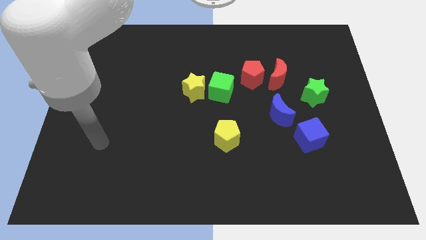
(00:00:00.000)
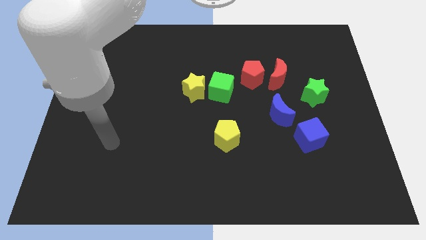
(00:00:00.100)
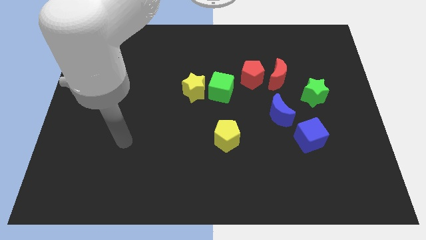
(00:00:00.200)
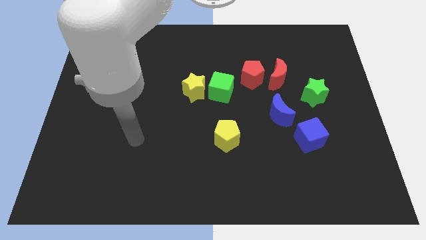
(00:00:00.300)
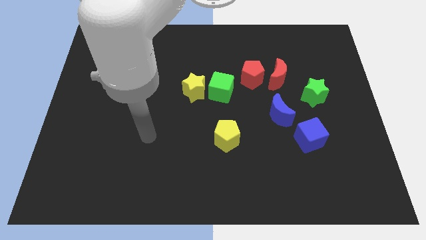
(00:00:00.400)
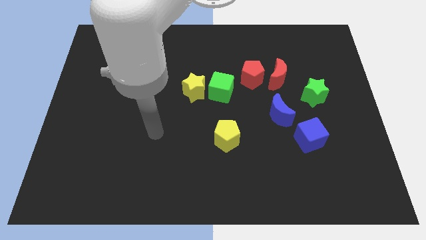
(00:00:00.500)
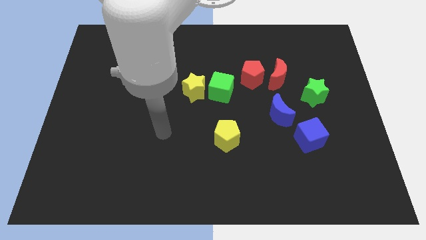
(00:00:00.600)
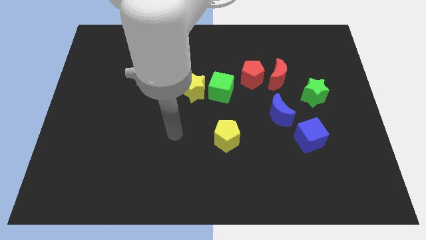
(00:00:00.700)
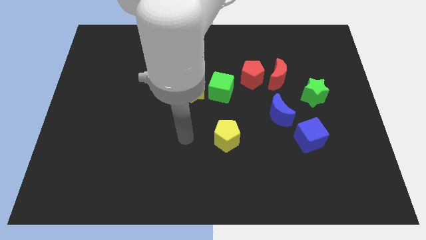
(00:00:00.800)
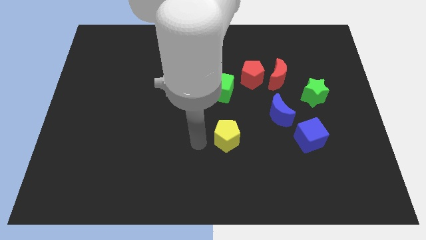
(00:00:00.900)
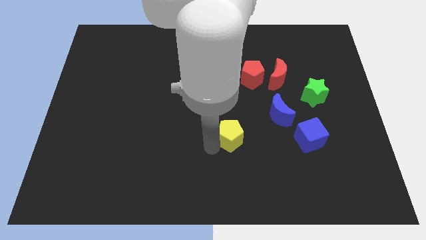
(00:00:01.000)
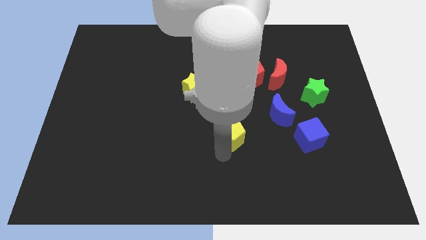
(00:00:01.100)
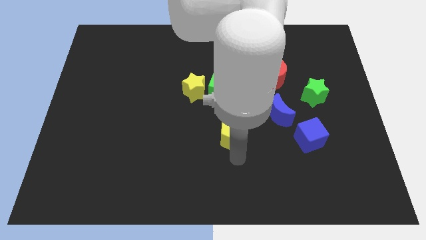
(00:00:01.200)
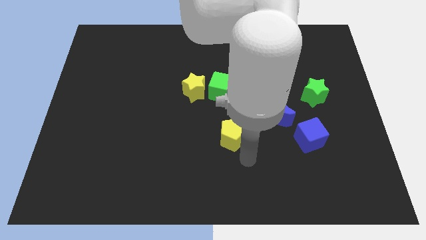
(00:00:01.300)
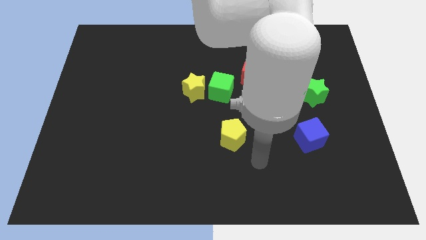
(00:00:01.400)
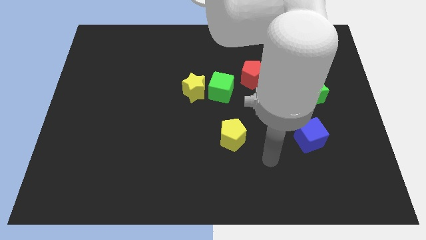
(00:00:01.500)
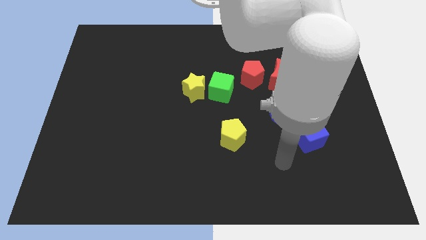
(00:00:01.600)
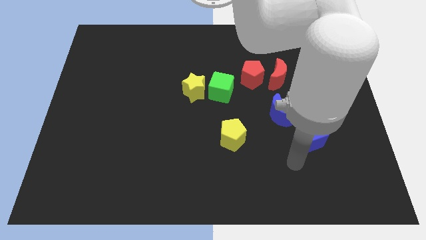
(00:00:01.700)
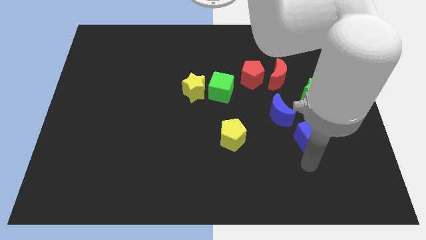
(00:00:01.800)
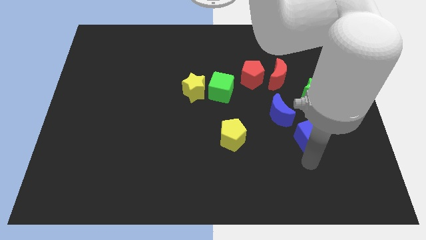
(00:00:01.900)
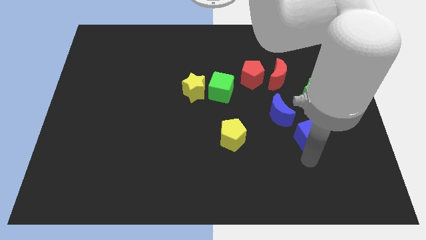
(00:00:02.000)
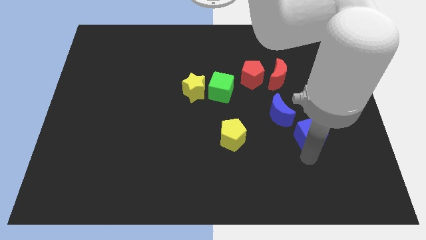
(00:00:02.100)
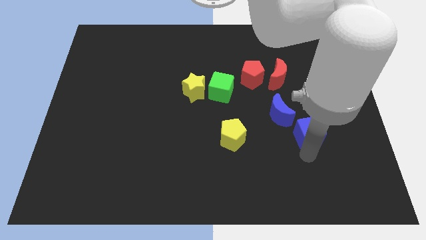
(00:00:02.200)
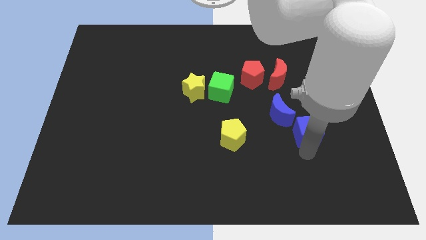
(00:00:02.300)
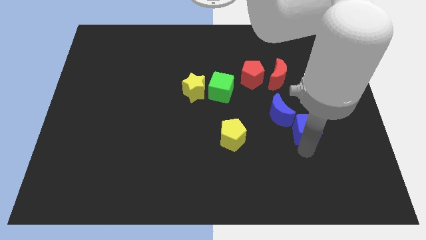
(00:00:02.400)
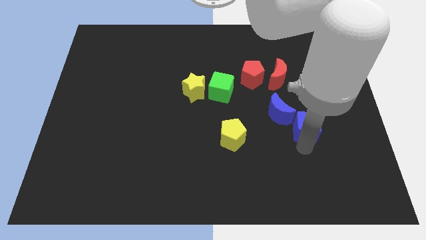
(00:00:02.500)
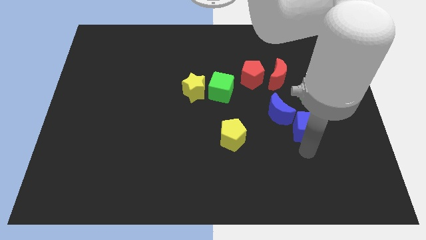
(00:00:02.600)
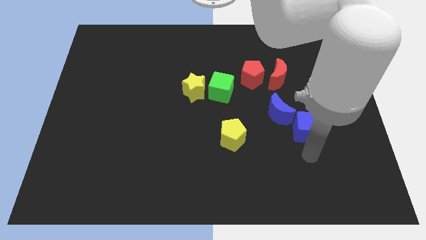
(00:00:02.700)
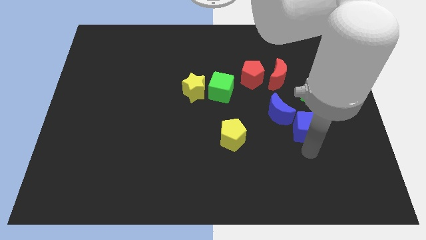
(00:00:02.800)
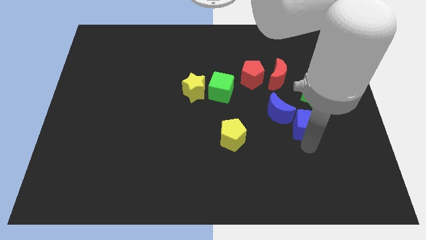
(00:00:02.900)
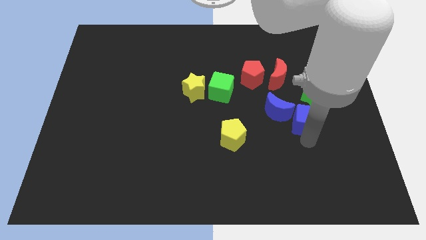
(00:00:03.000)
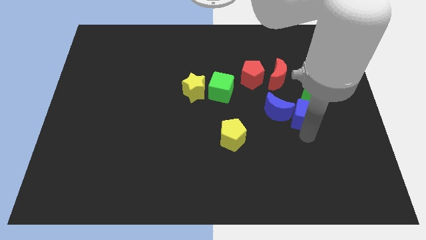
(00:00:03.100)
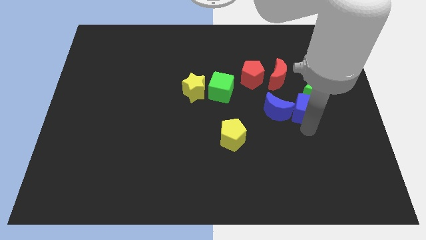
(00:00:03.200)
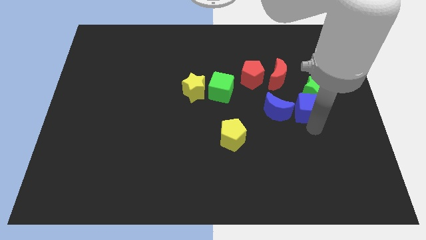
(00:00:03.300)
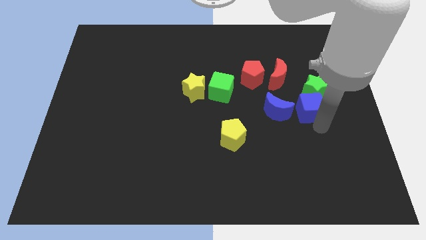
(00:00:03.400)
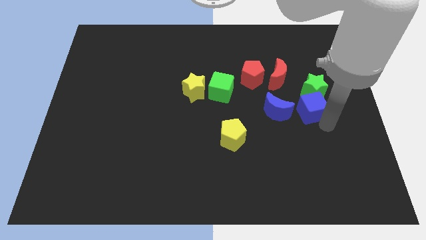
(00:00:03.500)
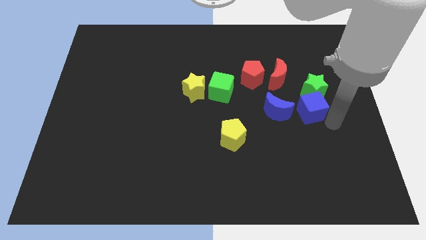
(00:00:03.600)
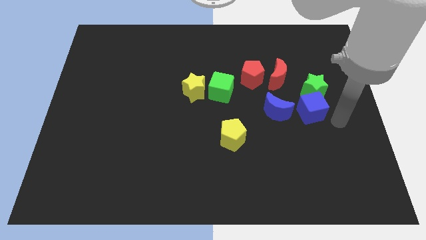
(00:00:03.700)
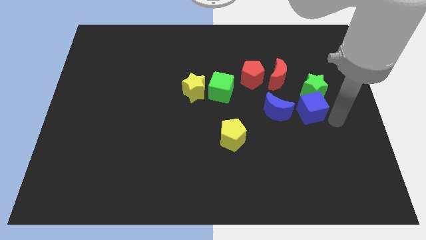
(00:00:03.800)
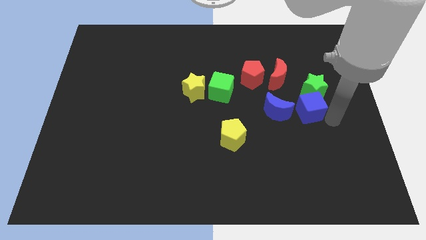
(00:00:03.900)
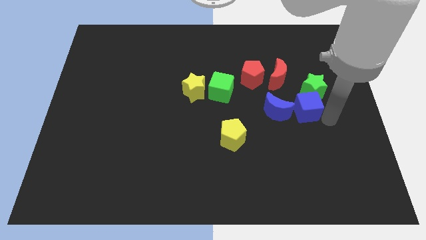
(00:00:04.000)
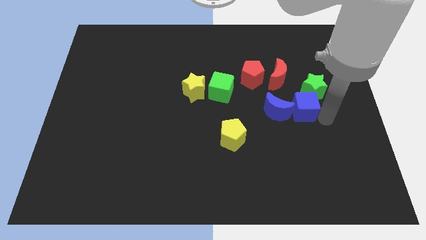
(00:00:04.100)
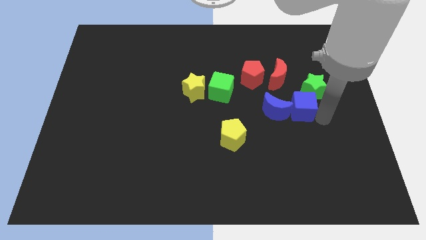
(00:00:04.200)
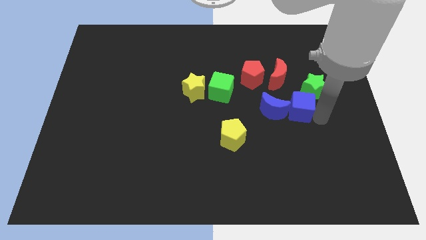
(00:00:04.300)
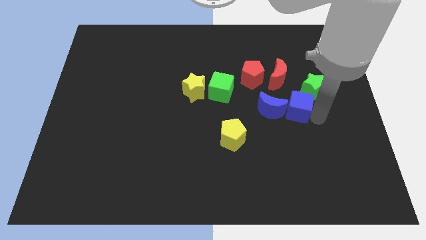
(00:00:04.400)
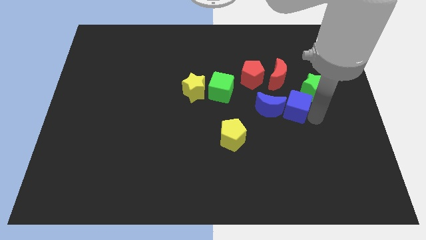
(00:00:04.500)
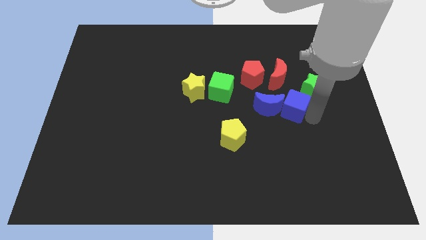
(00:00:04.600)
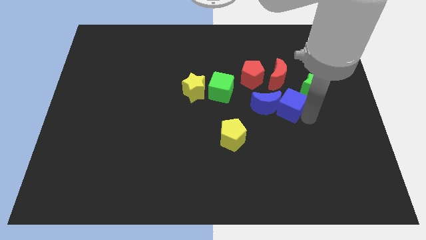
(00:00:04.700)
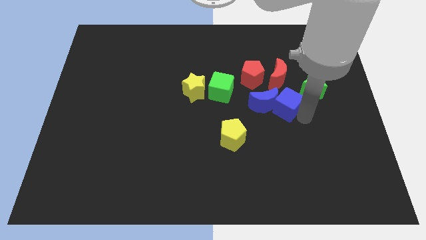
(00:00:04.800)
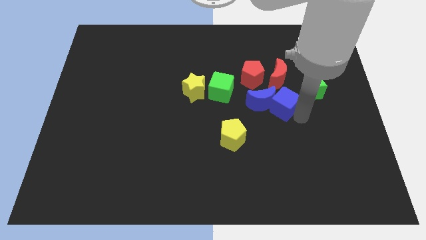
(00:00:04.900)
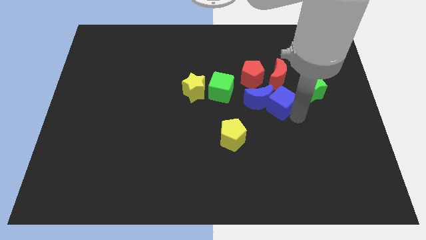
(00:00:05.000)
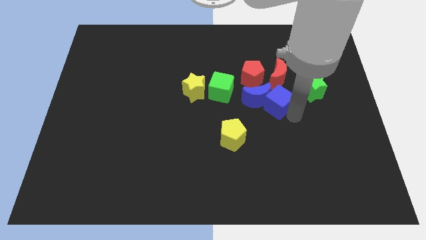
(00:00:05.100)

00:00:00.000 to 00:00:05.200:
slide the blue cube to the right side of the green cube

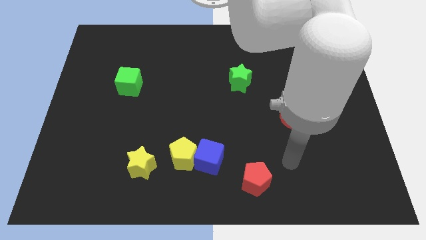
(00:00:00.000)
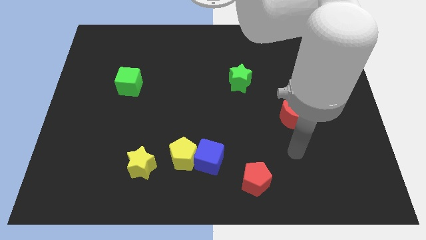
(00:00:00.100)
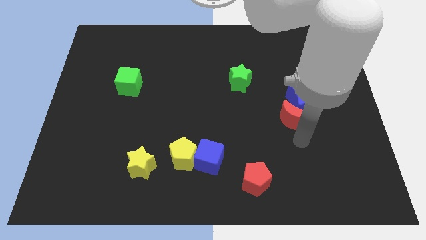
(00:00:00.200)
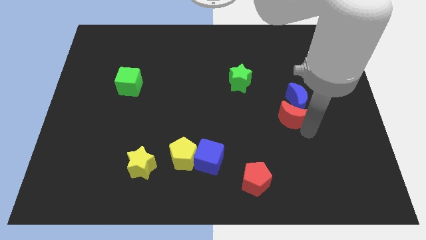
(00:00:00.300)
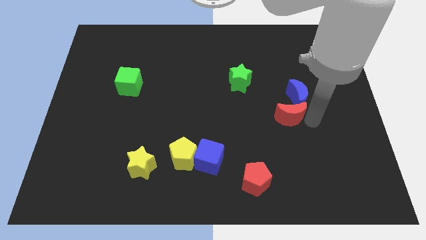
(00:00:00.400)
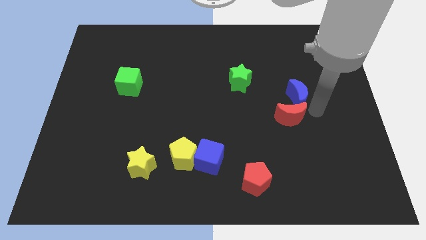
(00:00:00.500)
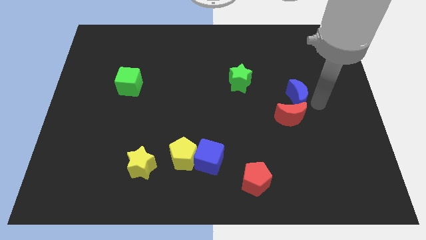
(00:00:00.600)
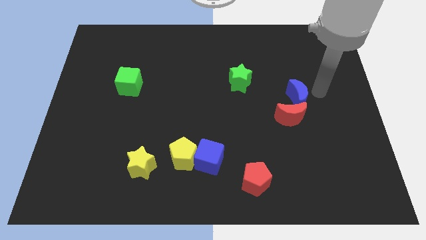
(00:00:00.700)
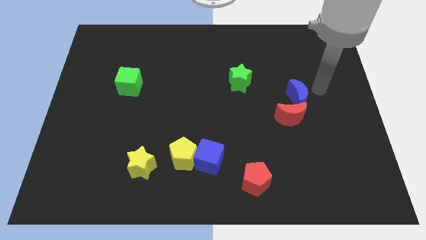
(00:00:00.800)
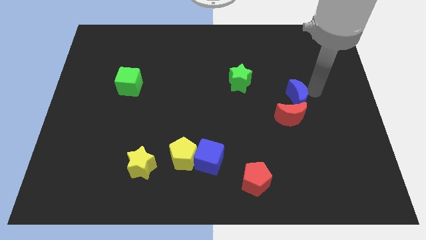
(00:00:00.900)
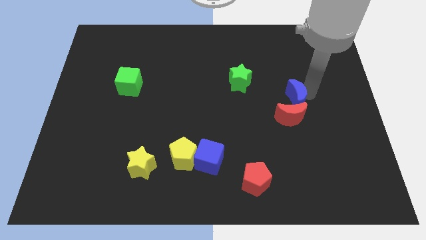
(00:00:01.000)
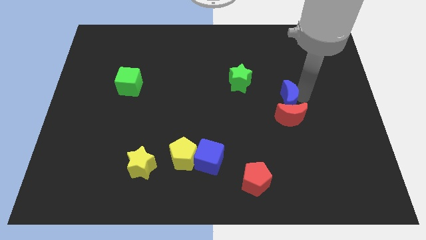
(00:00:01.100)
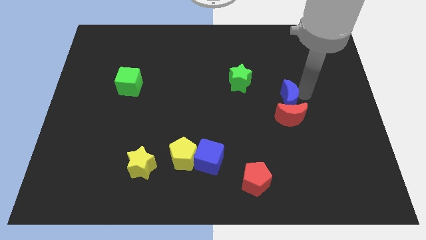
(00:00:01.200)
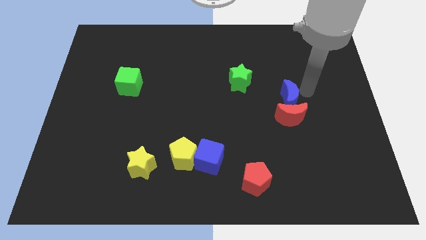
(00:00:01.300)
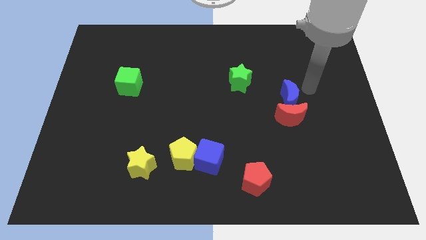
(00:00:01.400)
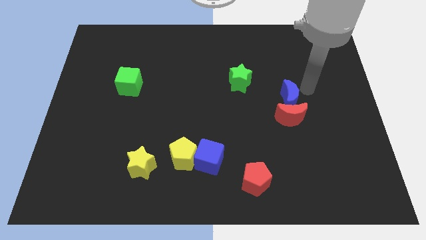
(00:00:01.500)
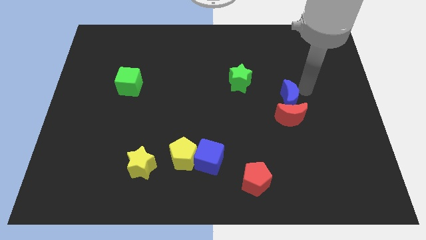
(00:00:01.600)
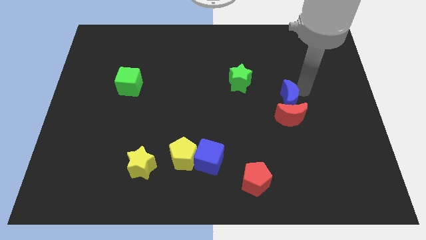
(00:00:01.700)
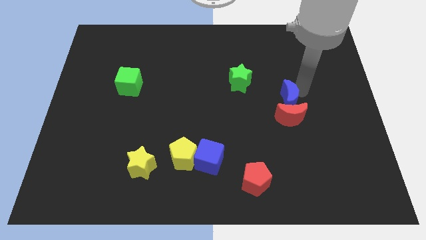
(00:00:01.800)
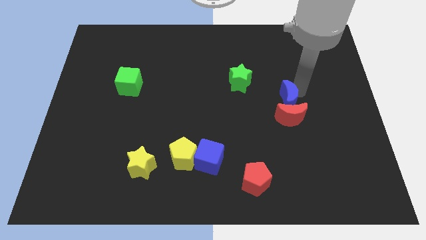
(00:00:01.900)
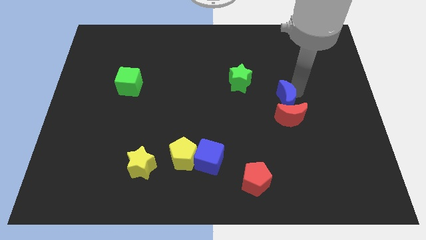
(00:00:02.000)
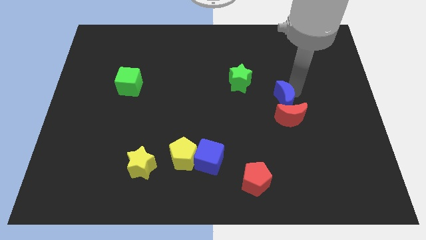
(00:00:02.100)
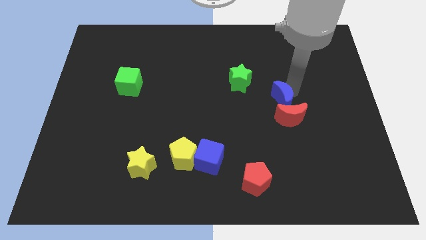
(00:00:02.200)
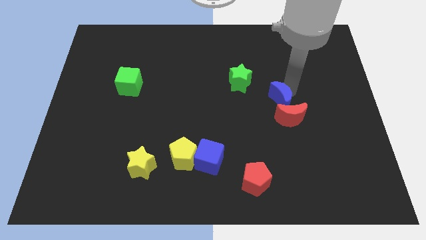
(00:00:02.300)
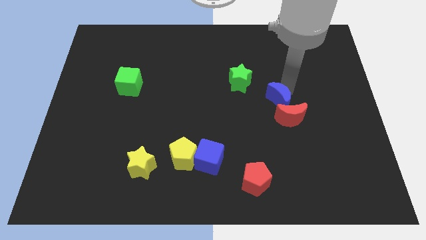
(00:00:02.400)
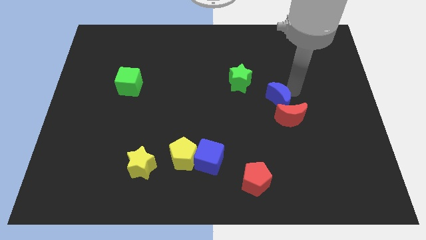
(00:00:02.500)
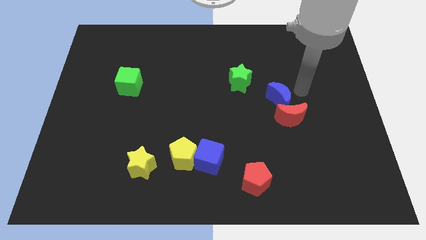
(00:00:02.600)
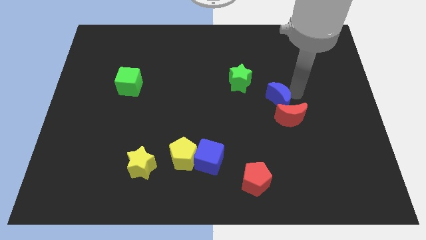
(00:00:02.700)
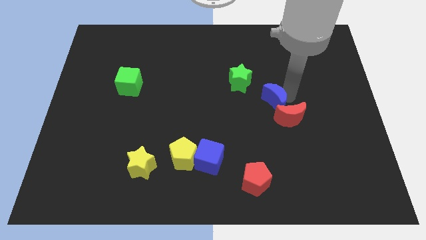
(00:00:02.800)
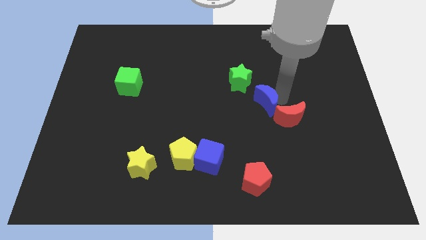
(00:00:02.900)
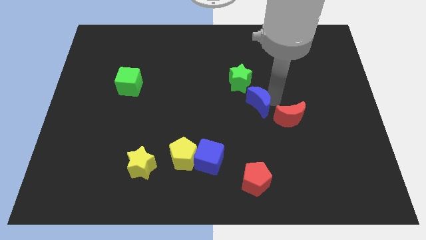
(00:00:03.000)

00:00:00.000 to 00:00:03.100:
put the blue moon to the bottom side of the green star

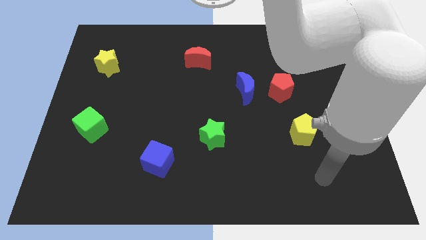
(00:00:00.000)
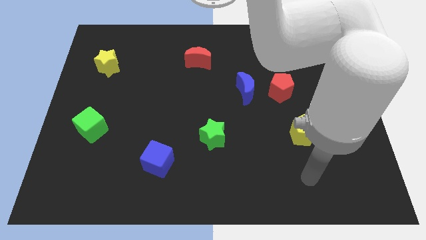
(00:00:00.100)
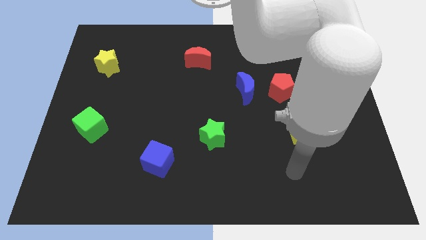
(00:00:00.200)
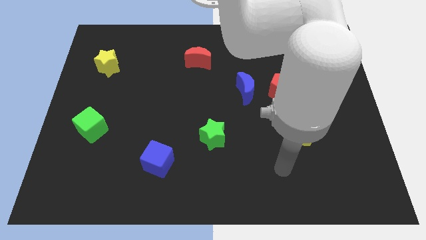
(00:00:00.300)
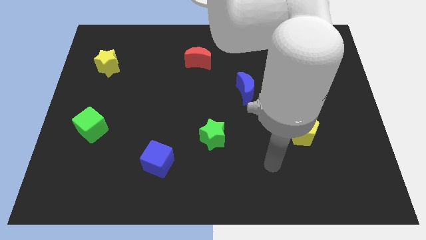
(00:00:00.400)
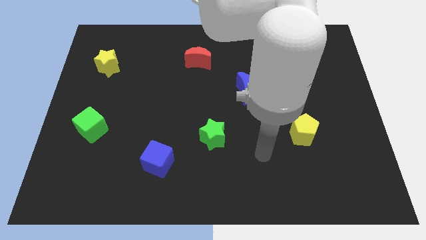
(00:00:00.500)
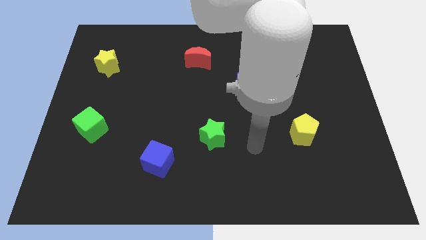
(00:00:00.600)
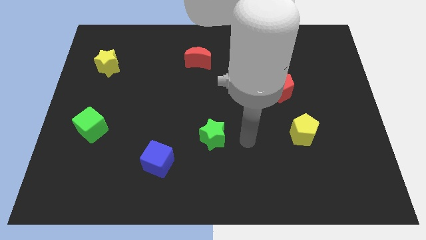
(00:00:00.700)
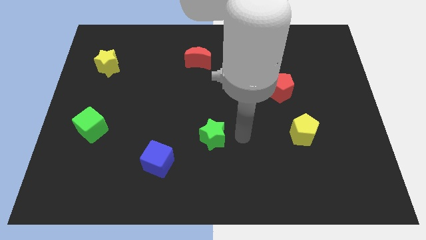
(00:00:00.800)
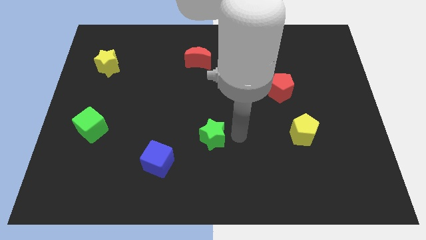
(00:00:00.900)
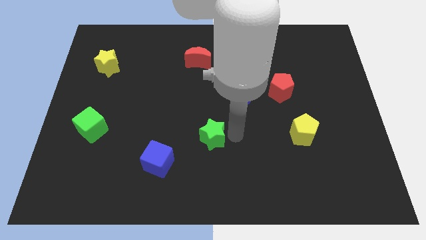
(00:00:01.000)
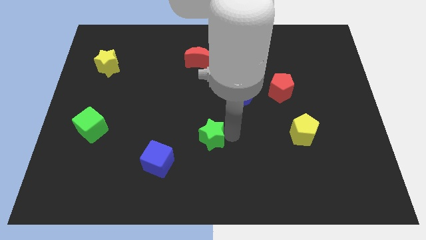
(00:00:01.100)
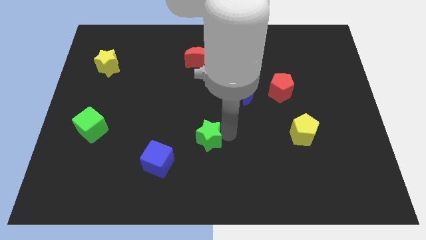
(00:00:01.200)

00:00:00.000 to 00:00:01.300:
push the green star to the top right of the blue cube
